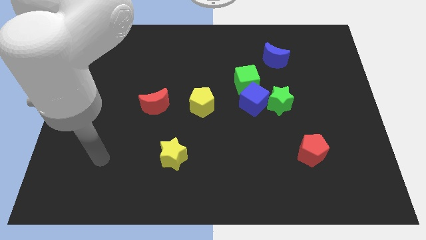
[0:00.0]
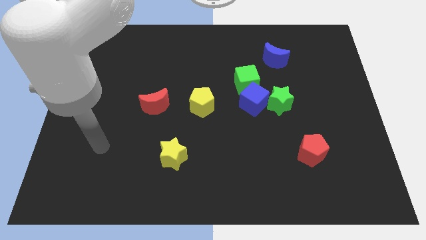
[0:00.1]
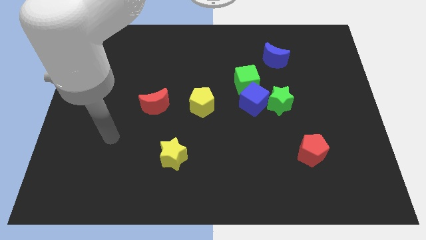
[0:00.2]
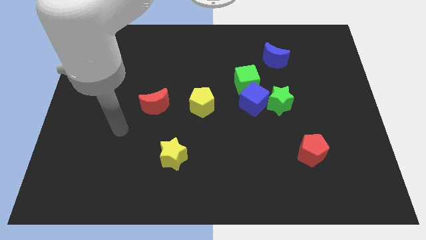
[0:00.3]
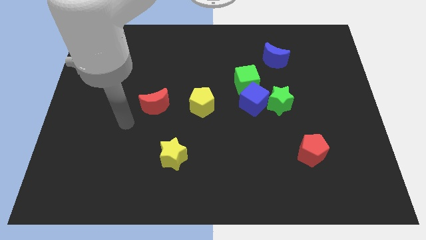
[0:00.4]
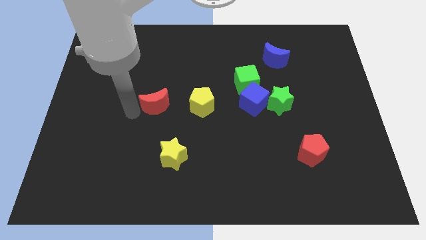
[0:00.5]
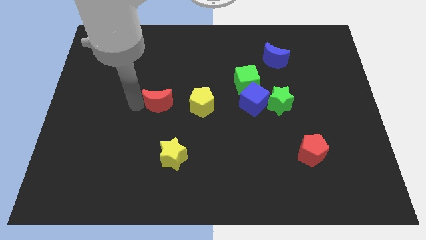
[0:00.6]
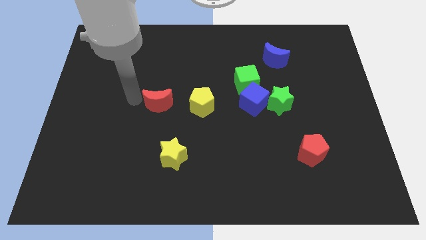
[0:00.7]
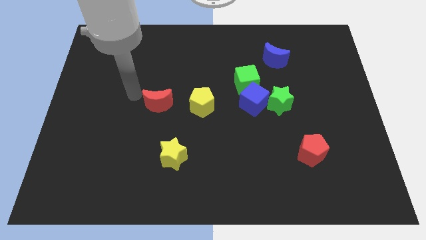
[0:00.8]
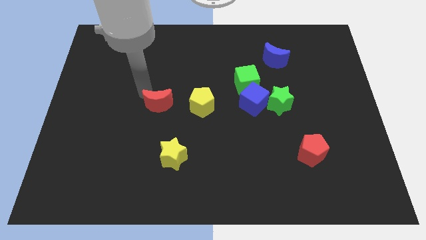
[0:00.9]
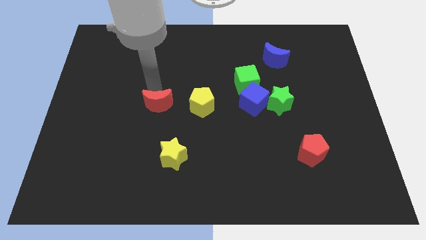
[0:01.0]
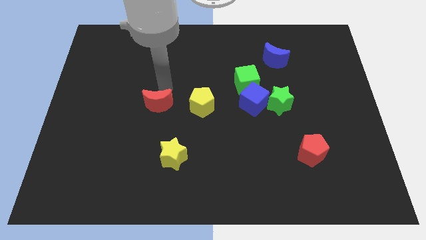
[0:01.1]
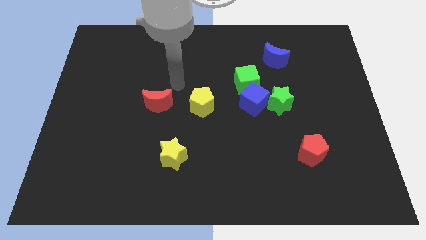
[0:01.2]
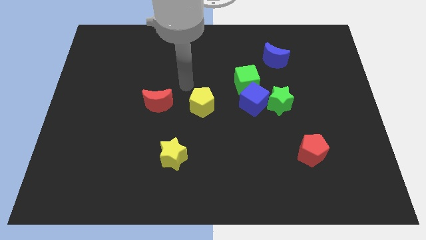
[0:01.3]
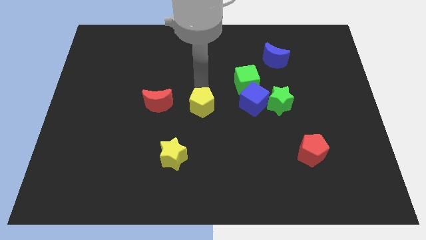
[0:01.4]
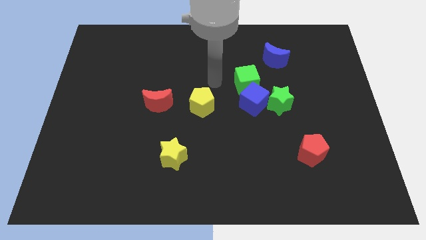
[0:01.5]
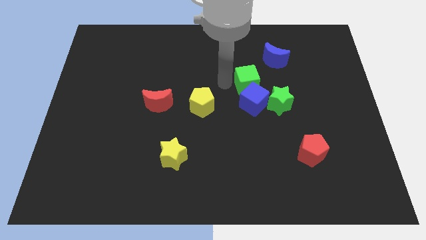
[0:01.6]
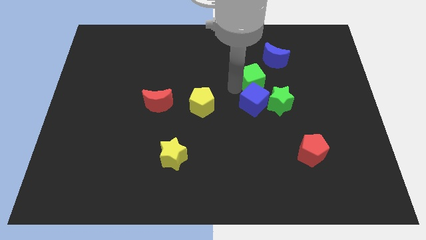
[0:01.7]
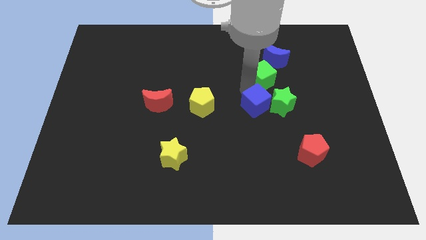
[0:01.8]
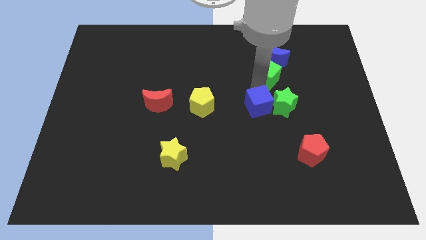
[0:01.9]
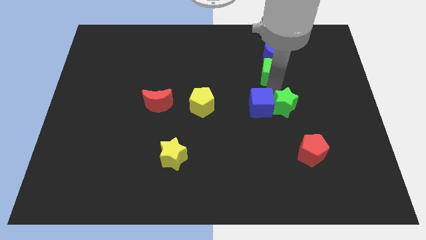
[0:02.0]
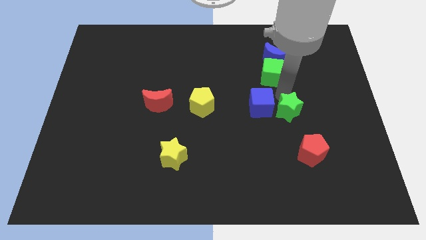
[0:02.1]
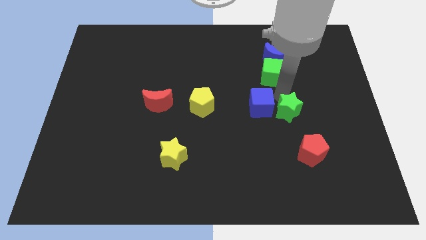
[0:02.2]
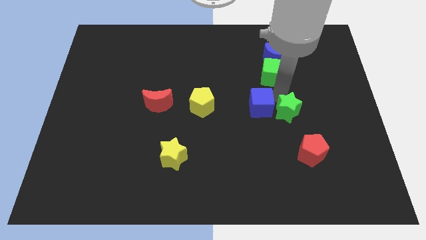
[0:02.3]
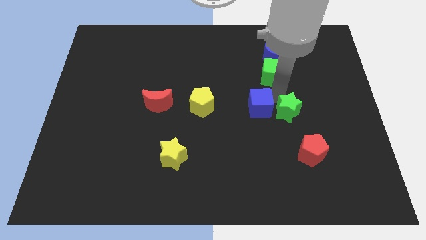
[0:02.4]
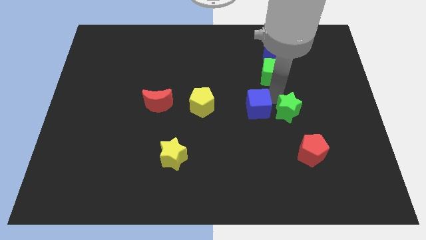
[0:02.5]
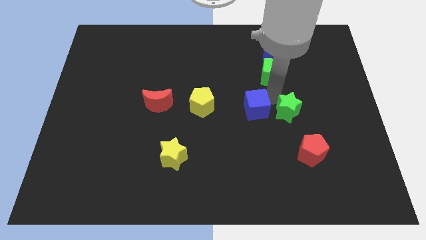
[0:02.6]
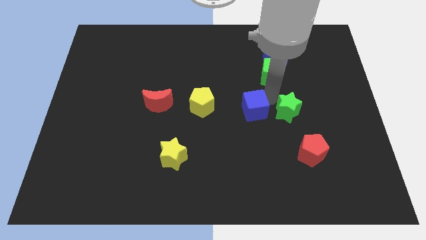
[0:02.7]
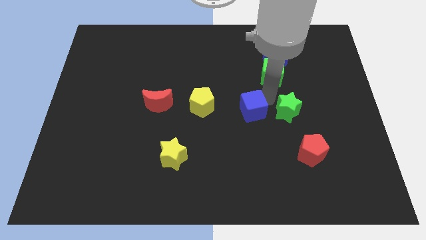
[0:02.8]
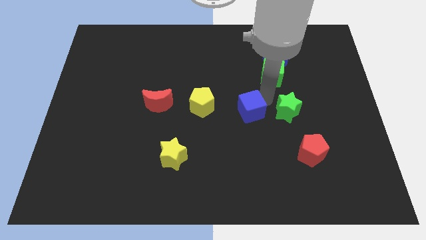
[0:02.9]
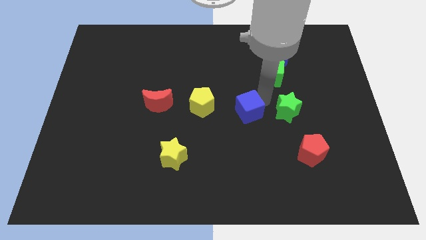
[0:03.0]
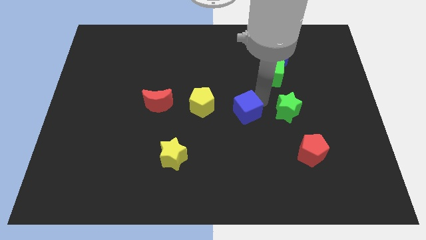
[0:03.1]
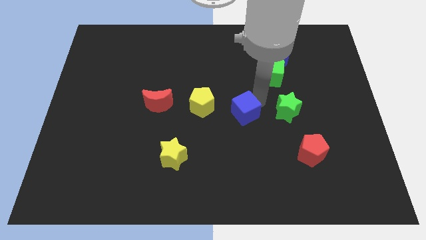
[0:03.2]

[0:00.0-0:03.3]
pull the blue cube apart from the green star and green cube

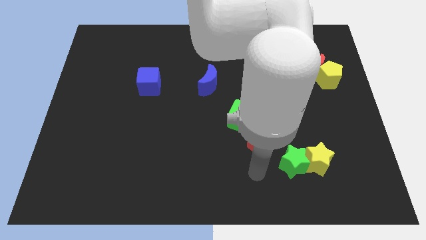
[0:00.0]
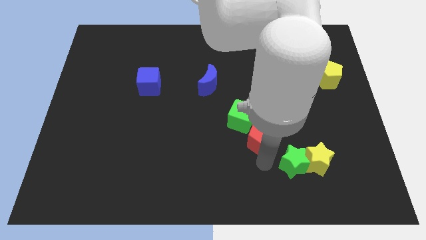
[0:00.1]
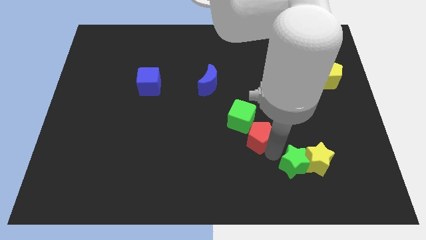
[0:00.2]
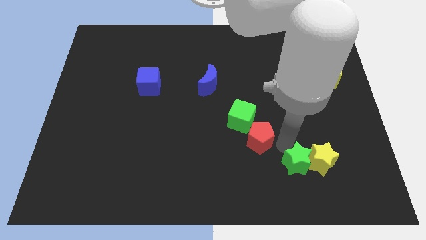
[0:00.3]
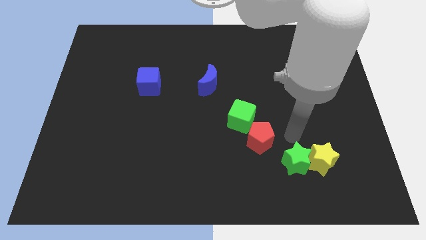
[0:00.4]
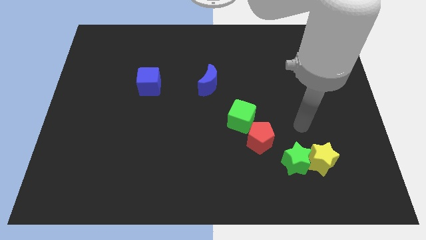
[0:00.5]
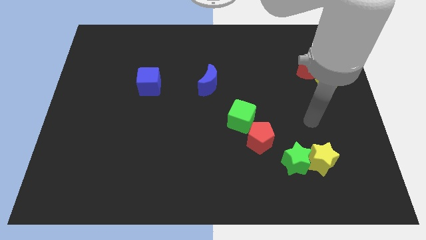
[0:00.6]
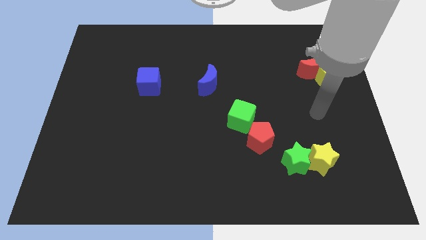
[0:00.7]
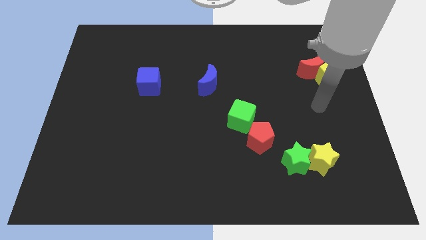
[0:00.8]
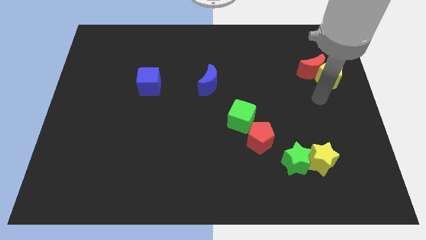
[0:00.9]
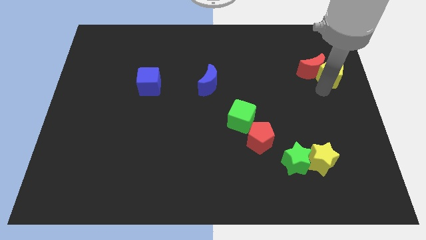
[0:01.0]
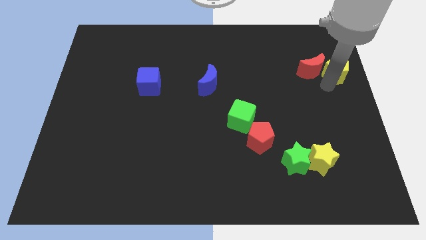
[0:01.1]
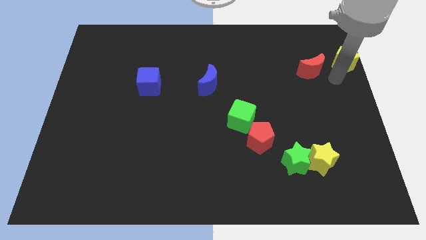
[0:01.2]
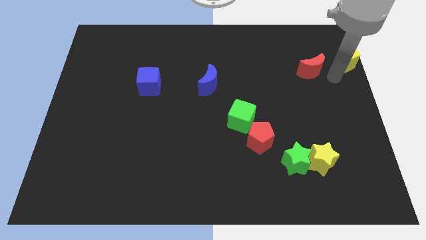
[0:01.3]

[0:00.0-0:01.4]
move the red moon away from the yellow pentagon

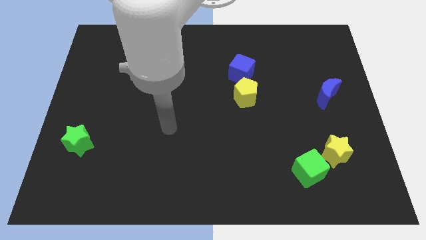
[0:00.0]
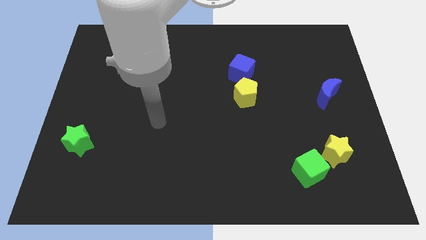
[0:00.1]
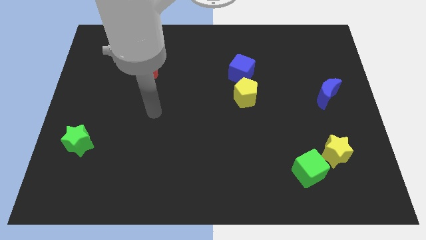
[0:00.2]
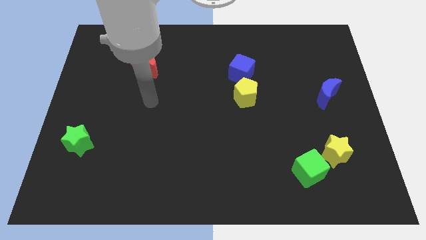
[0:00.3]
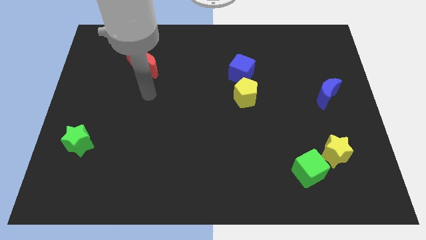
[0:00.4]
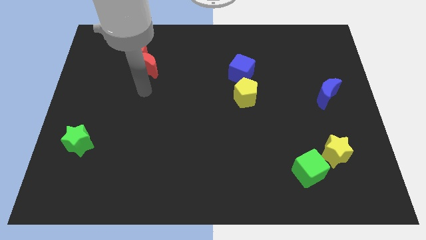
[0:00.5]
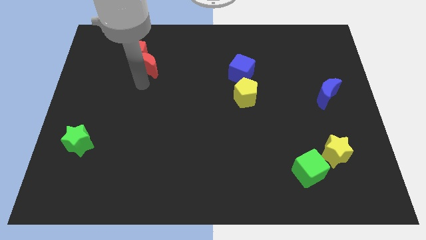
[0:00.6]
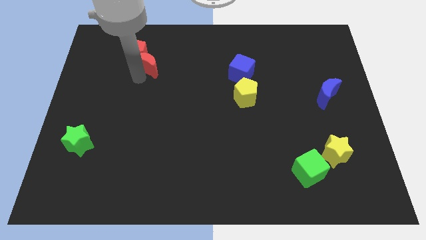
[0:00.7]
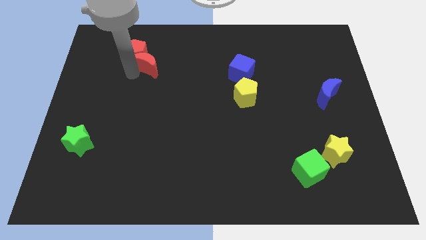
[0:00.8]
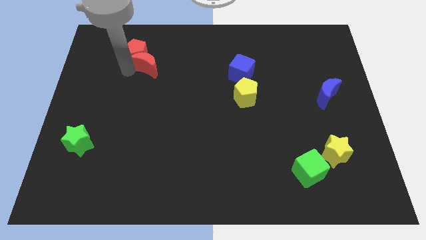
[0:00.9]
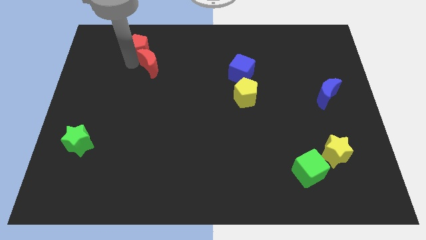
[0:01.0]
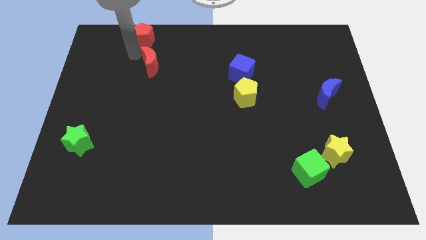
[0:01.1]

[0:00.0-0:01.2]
separate the red moon from the red pentagon

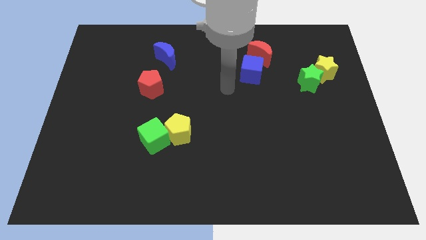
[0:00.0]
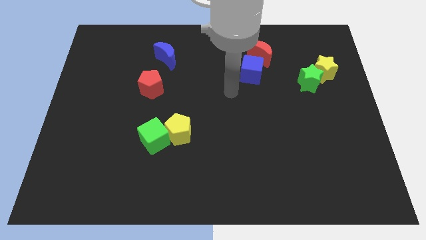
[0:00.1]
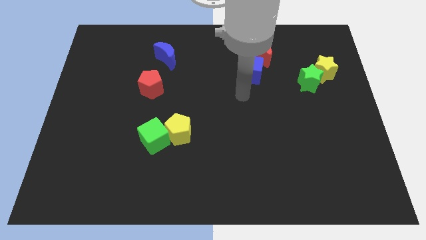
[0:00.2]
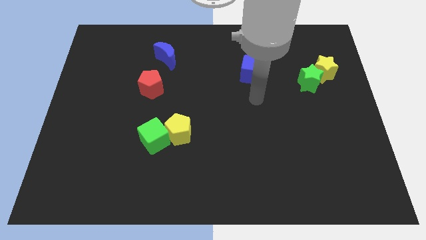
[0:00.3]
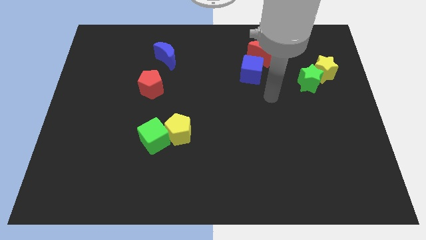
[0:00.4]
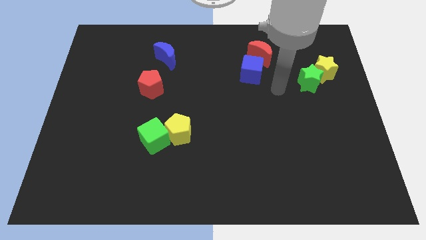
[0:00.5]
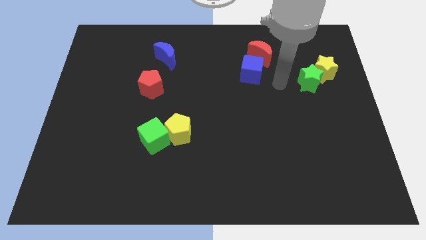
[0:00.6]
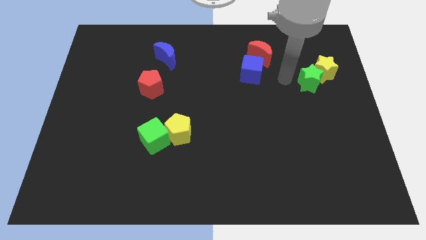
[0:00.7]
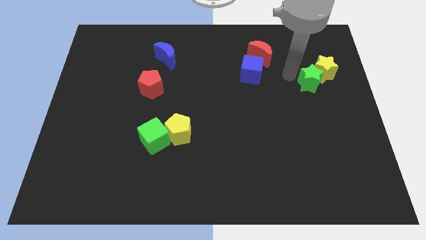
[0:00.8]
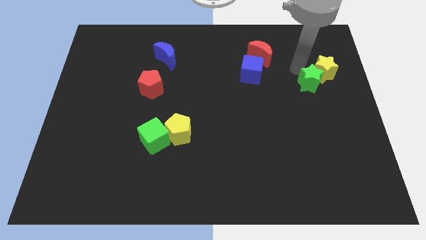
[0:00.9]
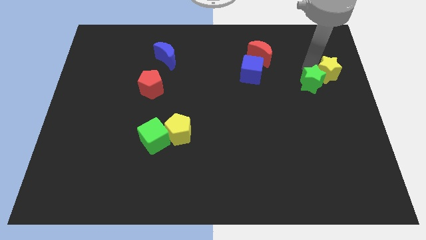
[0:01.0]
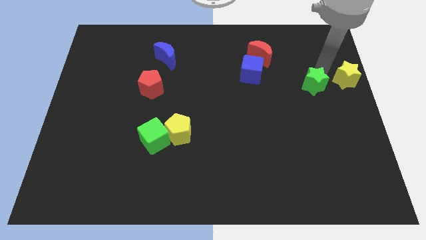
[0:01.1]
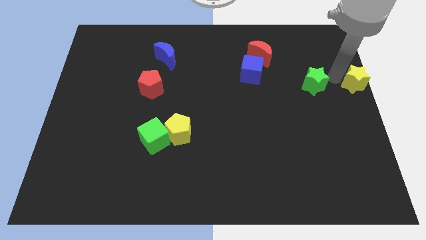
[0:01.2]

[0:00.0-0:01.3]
pull the green star apart from the yellow star

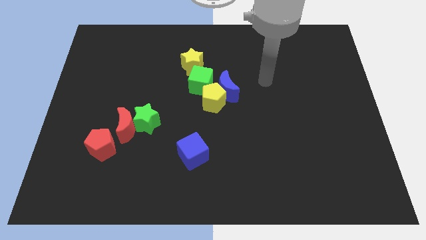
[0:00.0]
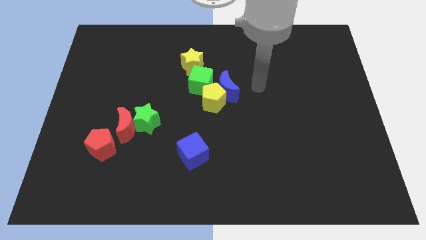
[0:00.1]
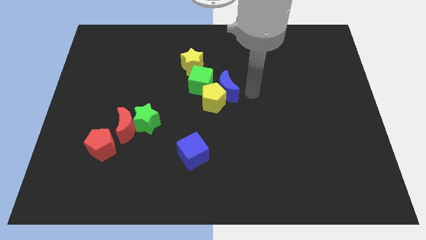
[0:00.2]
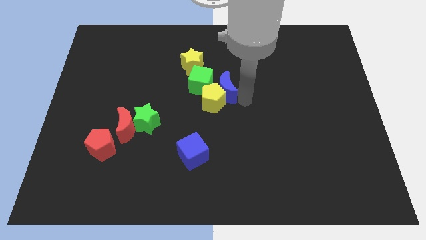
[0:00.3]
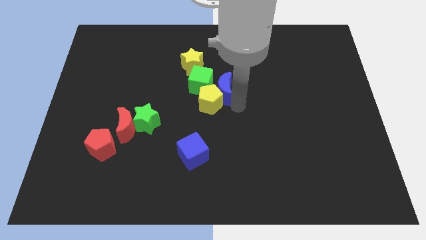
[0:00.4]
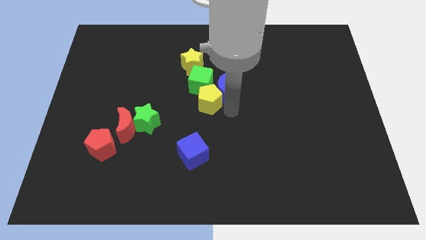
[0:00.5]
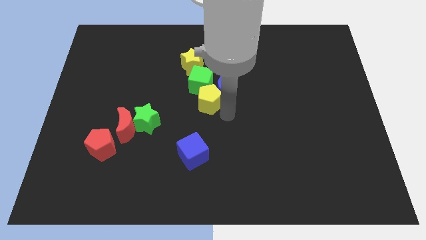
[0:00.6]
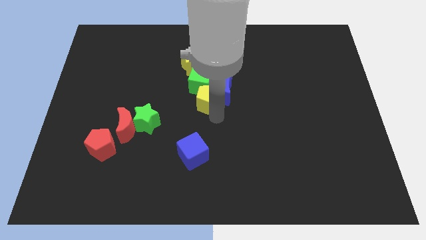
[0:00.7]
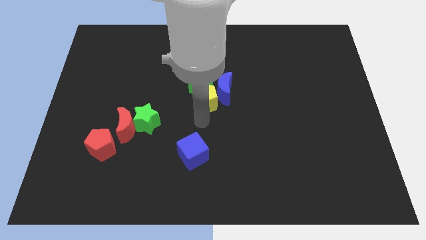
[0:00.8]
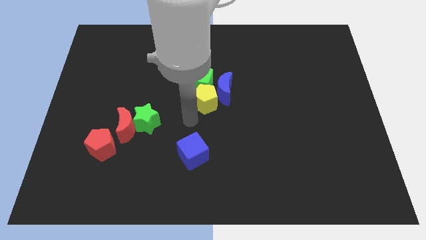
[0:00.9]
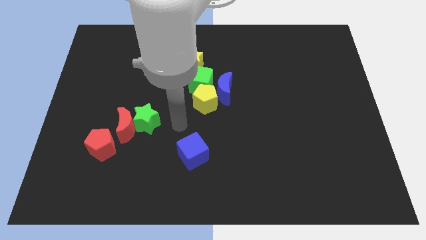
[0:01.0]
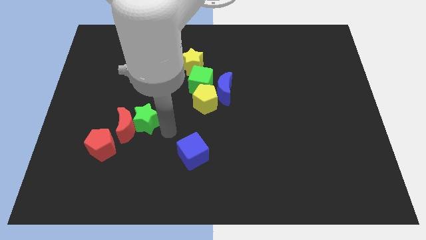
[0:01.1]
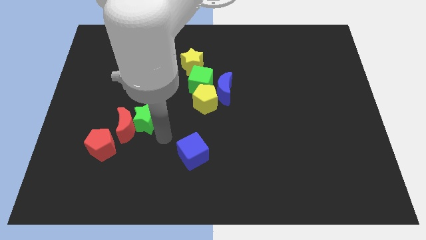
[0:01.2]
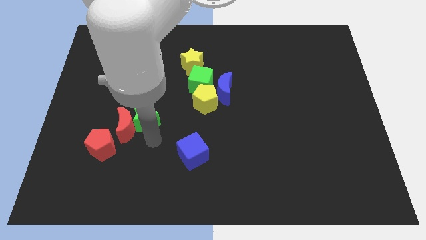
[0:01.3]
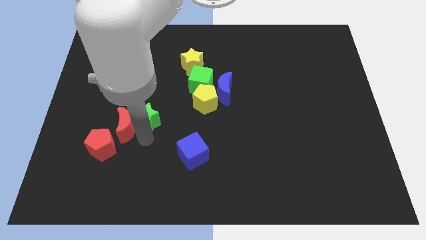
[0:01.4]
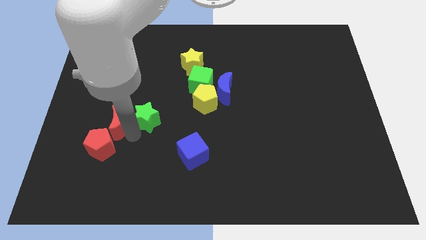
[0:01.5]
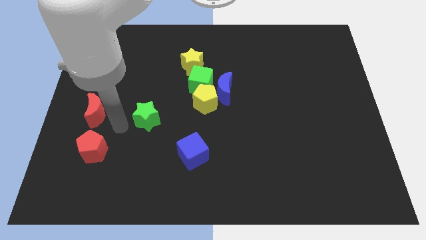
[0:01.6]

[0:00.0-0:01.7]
move the green star away from the red moon

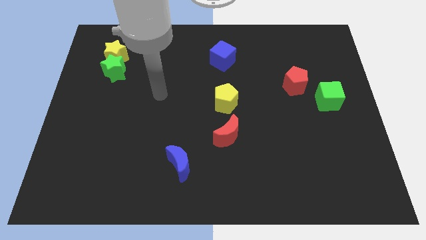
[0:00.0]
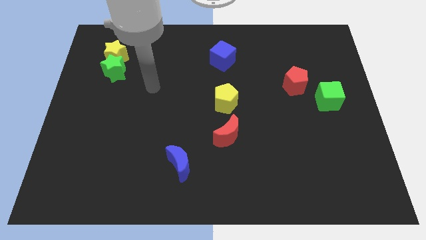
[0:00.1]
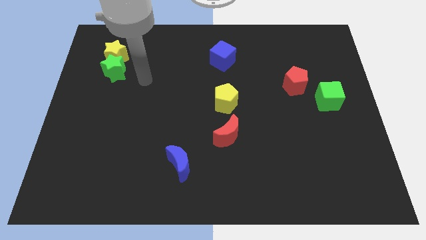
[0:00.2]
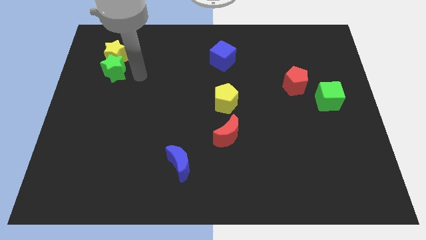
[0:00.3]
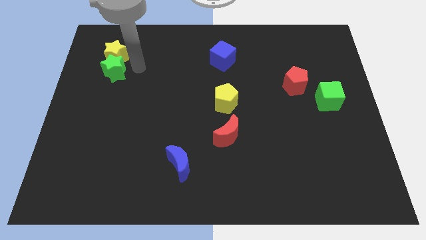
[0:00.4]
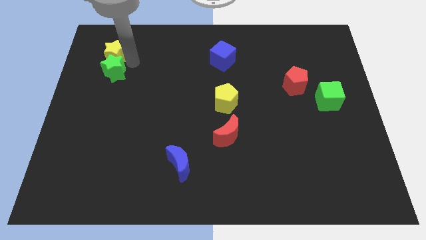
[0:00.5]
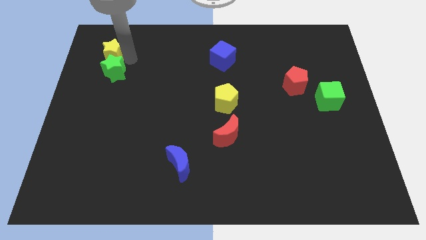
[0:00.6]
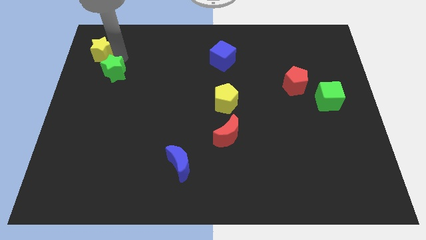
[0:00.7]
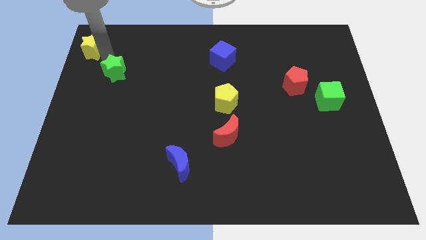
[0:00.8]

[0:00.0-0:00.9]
separate the green star from the yellow star